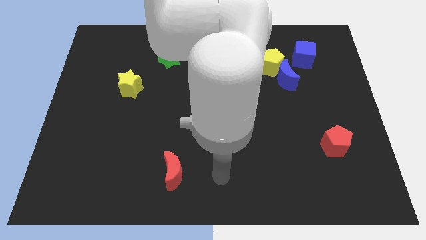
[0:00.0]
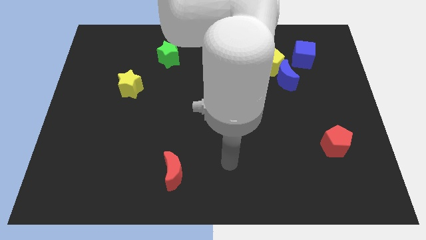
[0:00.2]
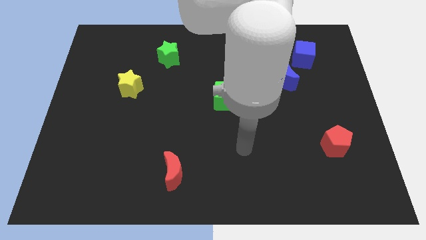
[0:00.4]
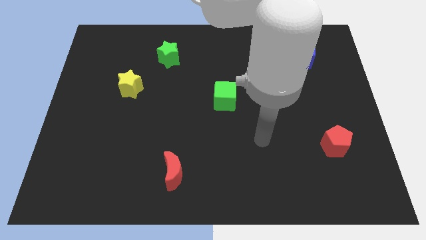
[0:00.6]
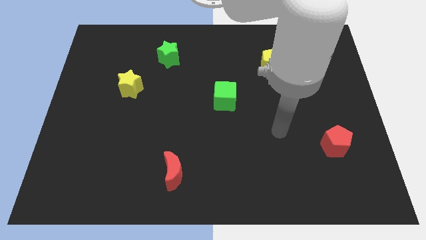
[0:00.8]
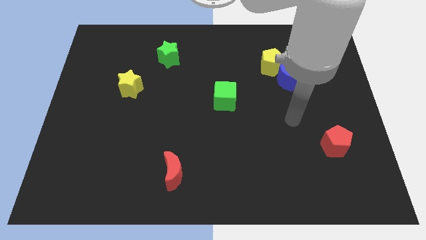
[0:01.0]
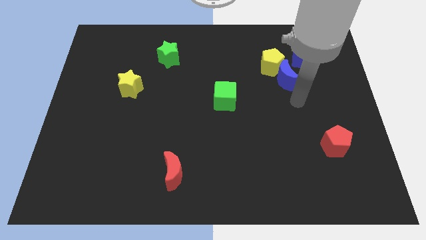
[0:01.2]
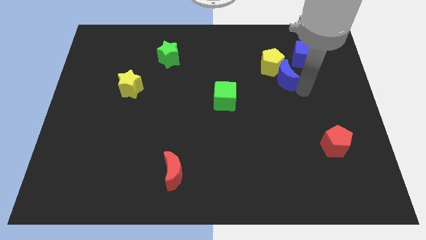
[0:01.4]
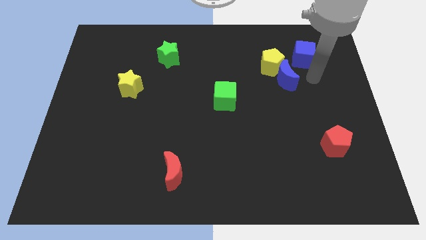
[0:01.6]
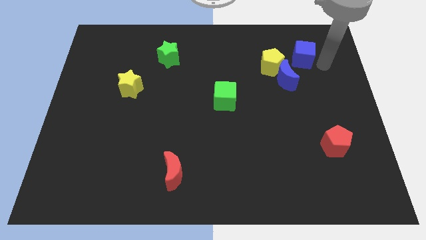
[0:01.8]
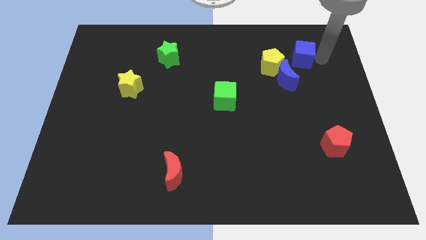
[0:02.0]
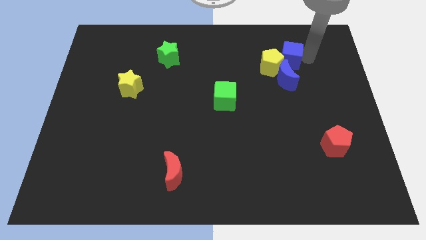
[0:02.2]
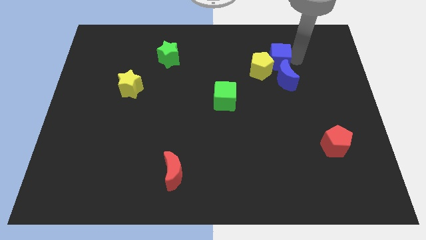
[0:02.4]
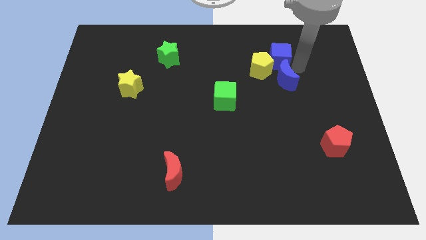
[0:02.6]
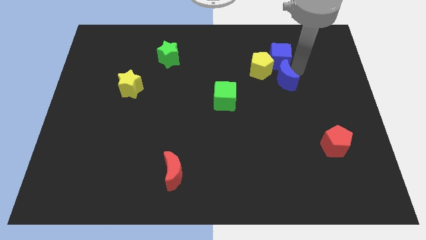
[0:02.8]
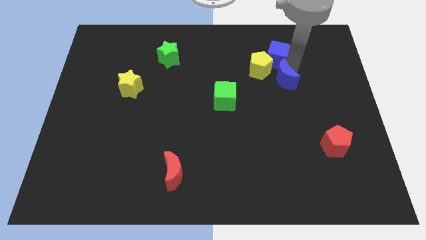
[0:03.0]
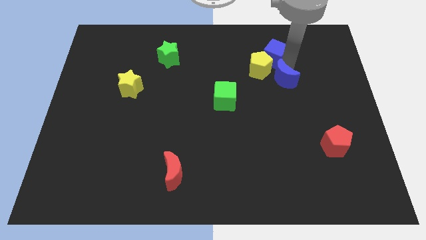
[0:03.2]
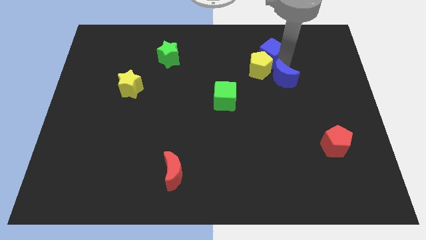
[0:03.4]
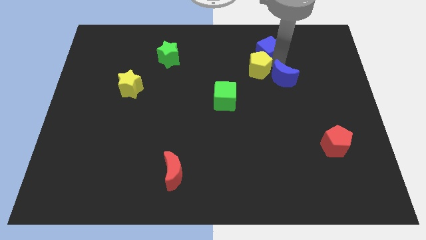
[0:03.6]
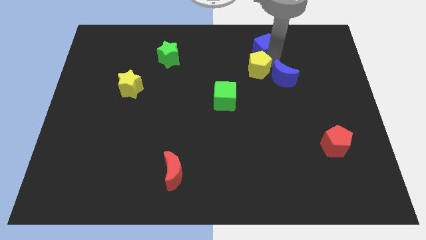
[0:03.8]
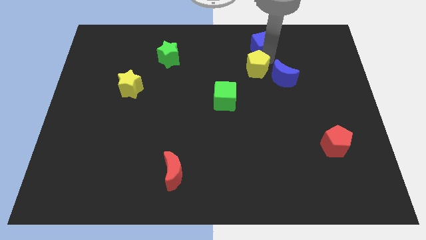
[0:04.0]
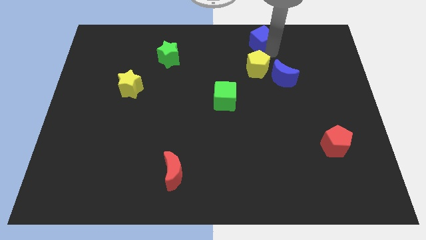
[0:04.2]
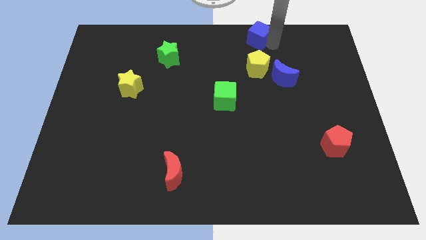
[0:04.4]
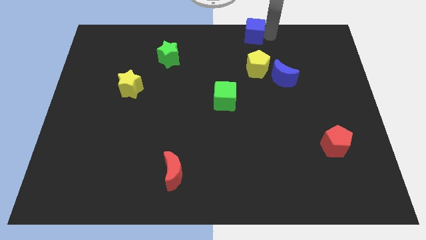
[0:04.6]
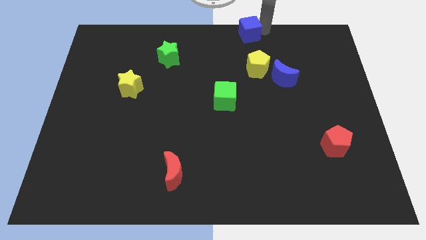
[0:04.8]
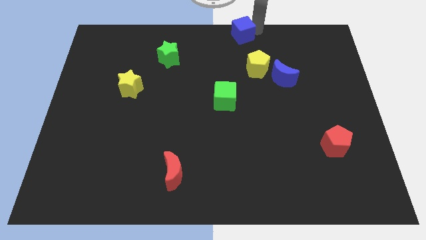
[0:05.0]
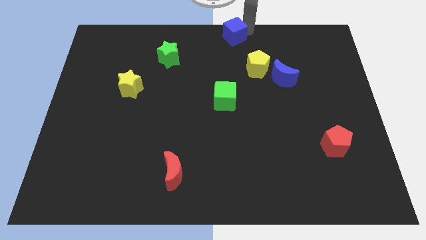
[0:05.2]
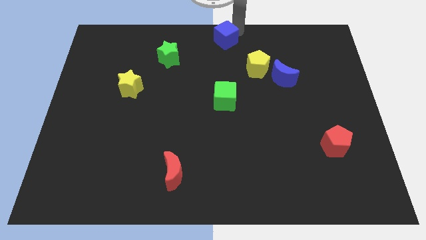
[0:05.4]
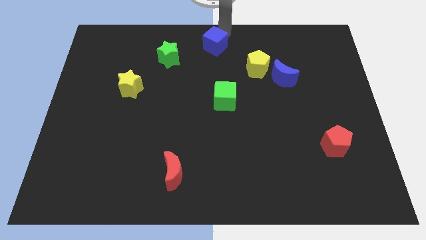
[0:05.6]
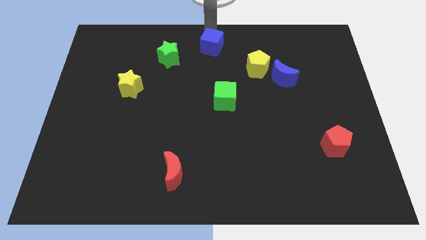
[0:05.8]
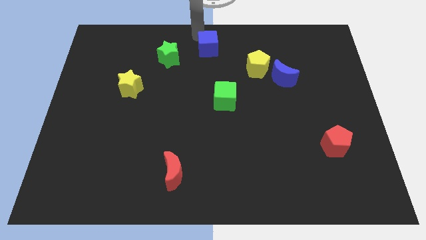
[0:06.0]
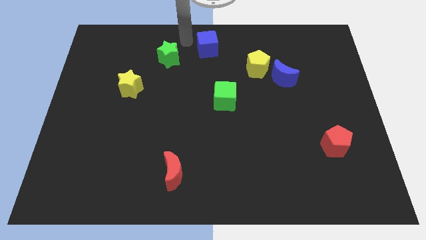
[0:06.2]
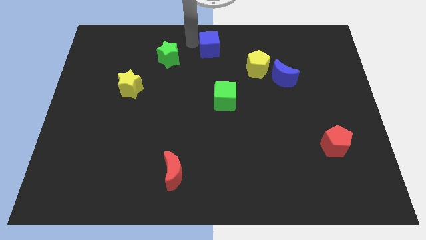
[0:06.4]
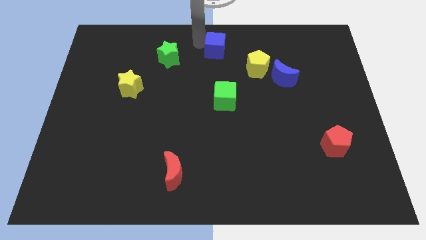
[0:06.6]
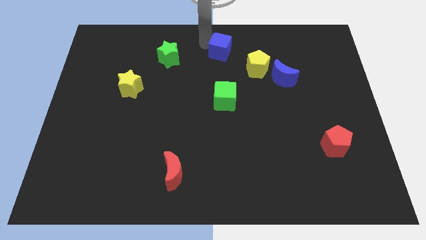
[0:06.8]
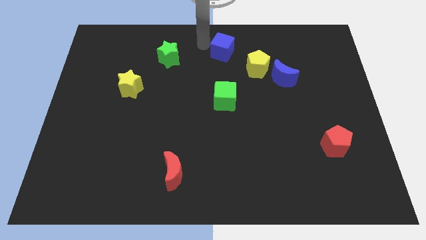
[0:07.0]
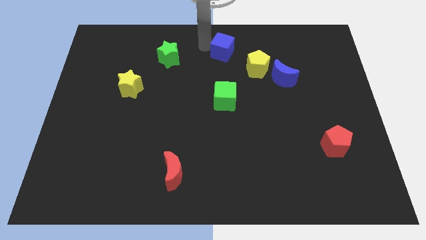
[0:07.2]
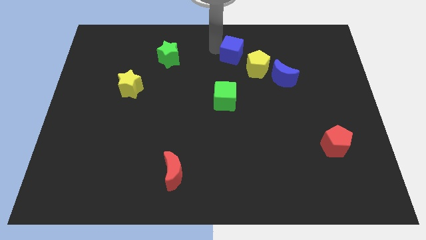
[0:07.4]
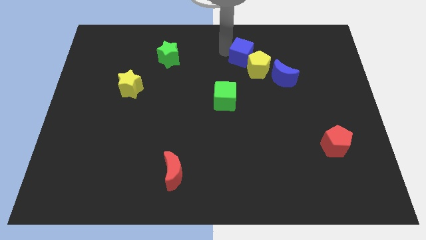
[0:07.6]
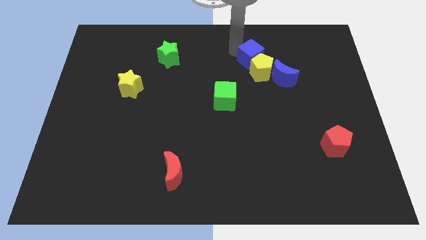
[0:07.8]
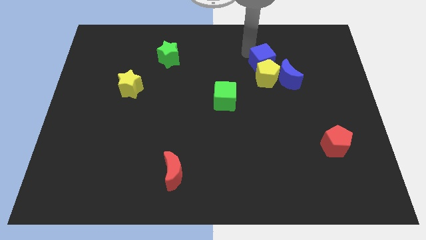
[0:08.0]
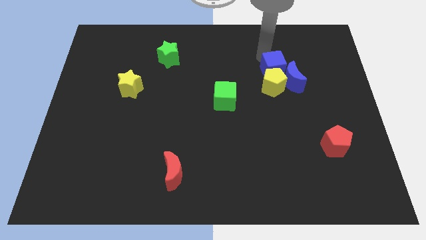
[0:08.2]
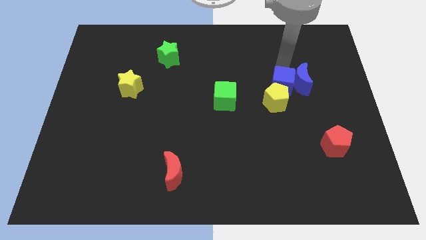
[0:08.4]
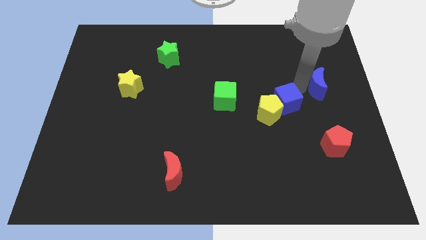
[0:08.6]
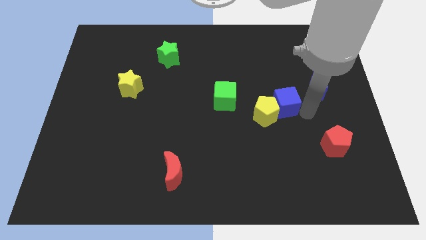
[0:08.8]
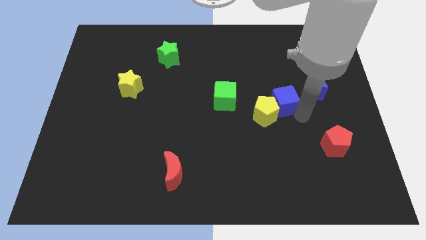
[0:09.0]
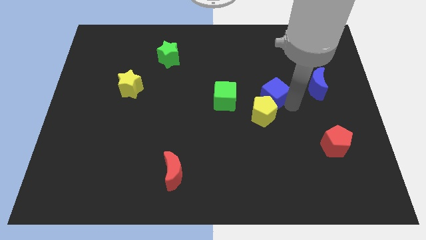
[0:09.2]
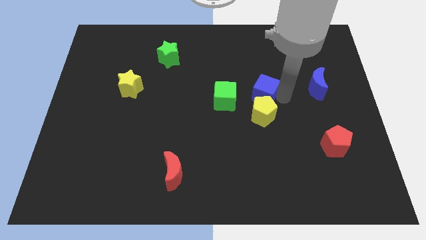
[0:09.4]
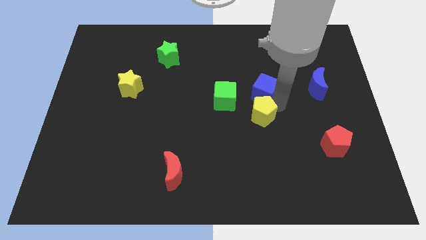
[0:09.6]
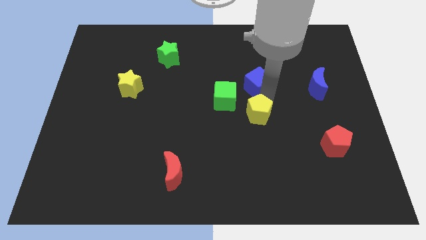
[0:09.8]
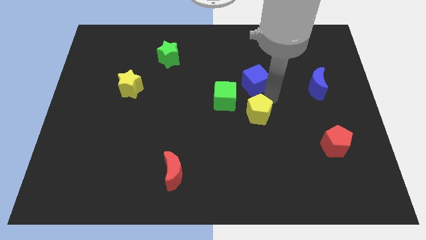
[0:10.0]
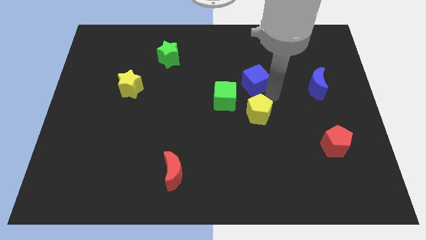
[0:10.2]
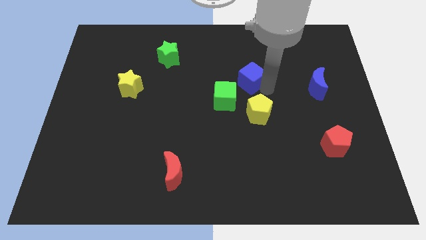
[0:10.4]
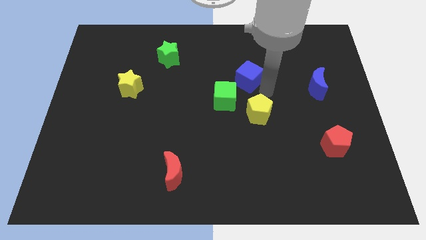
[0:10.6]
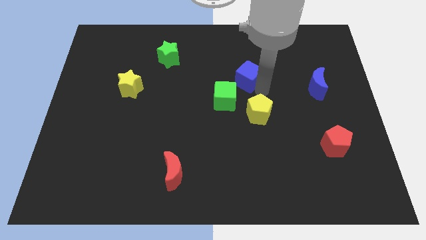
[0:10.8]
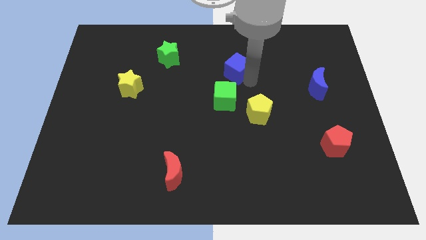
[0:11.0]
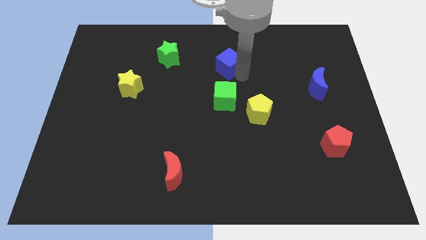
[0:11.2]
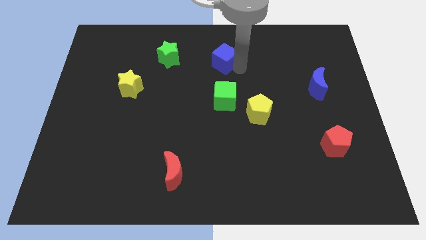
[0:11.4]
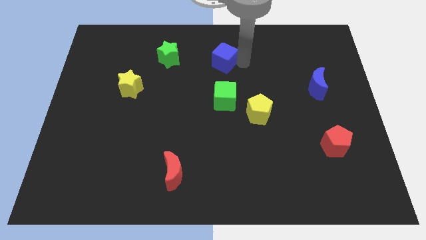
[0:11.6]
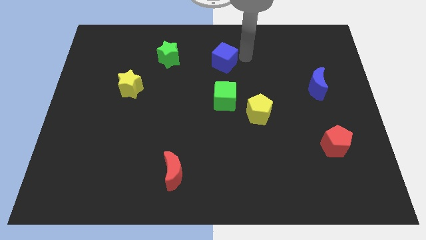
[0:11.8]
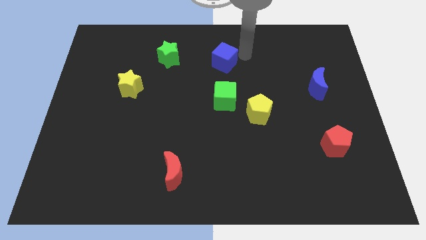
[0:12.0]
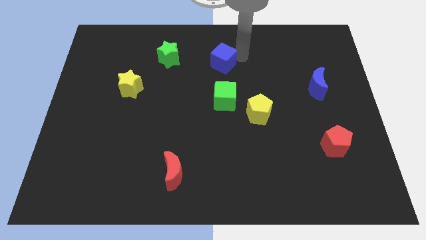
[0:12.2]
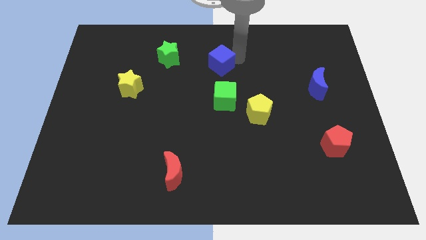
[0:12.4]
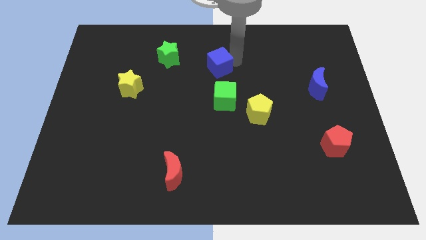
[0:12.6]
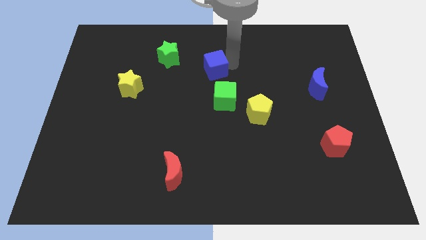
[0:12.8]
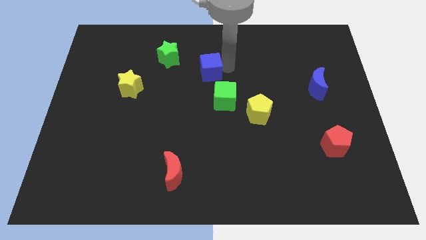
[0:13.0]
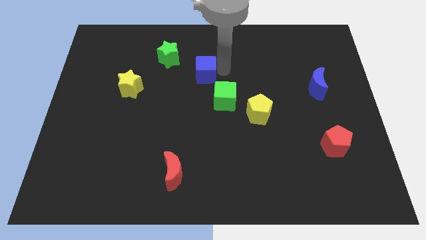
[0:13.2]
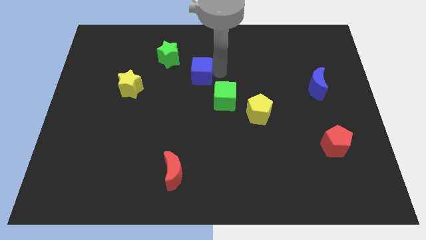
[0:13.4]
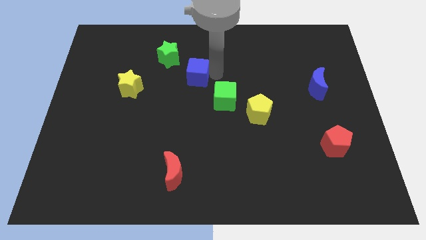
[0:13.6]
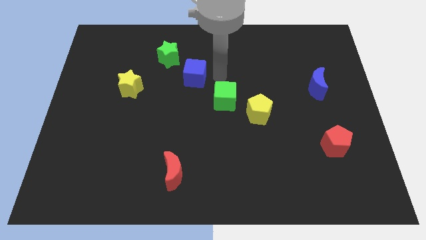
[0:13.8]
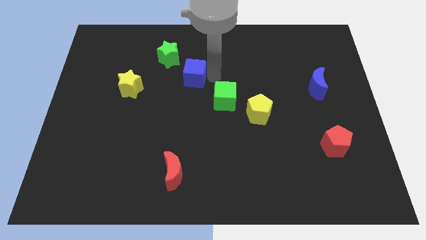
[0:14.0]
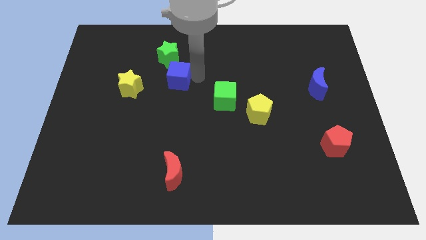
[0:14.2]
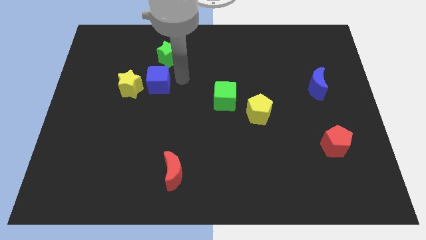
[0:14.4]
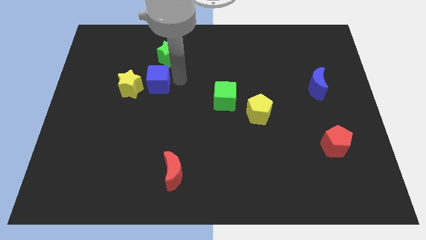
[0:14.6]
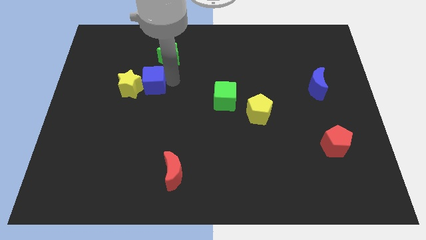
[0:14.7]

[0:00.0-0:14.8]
move the blue cube to the yellow star
